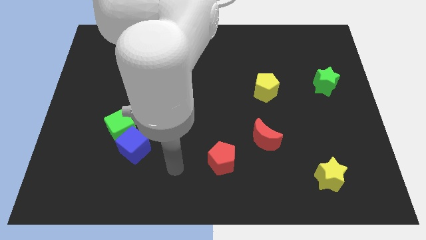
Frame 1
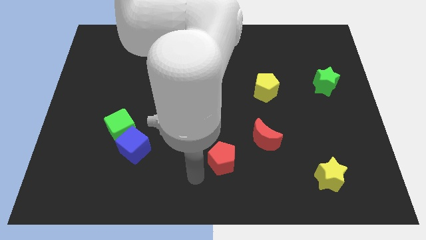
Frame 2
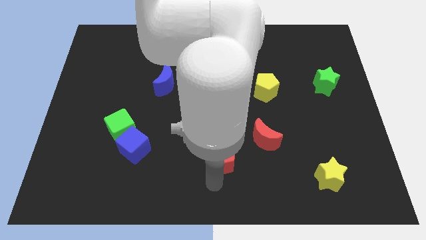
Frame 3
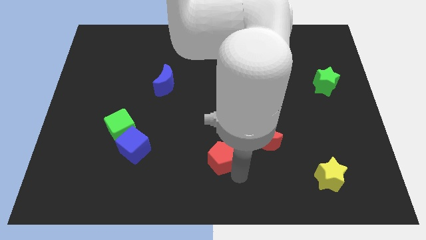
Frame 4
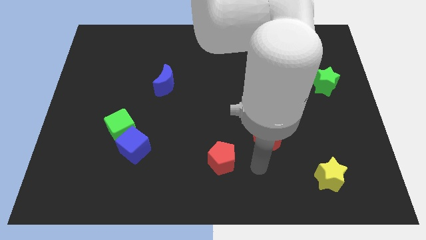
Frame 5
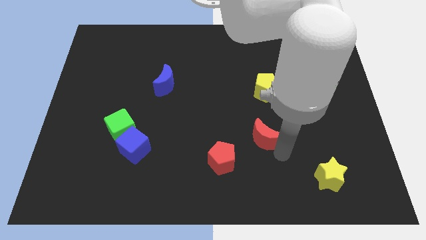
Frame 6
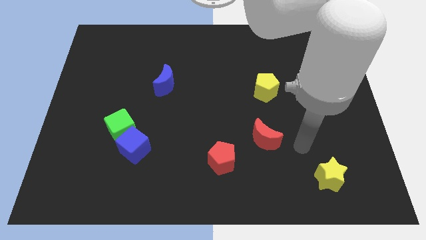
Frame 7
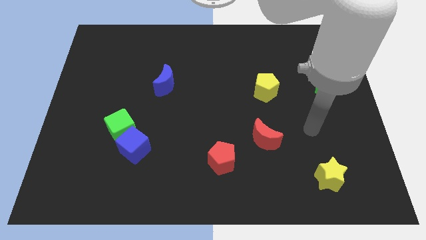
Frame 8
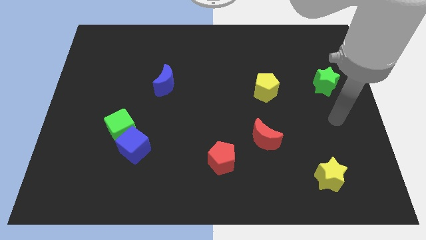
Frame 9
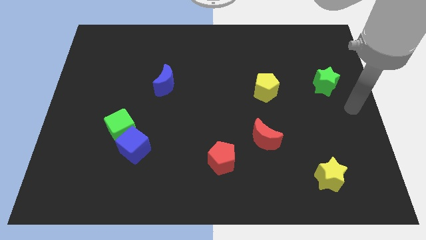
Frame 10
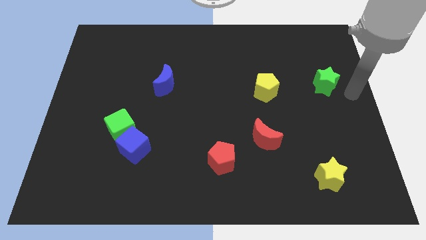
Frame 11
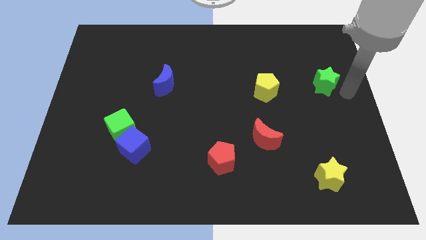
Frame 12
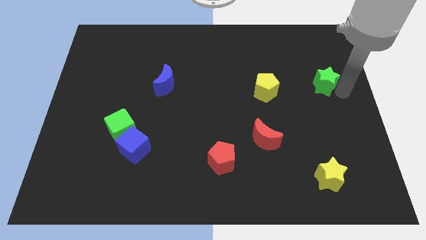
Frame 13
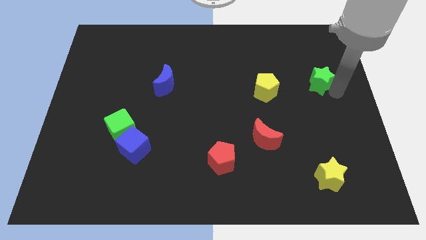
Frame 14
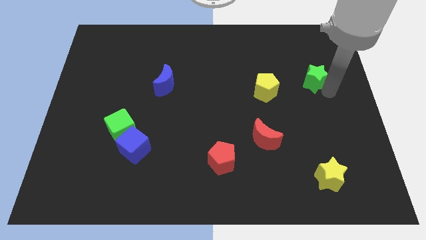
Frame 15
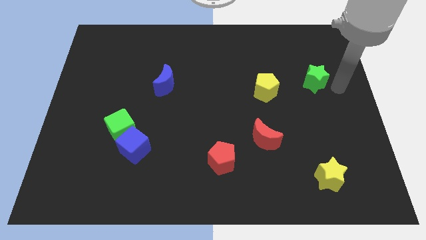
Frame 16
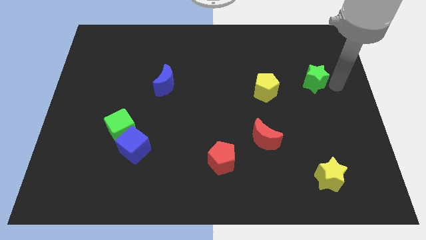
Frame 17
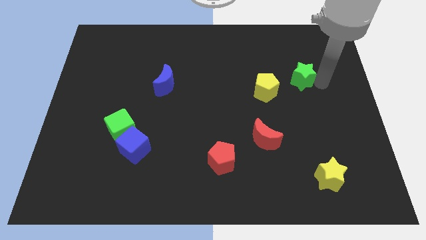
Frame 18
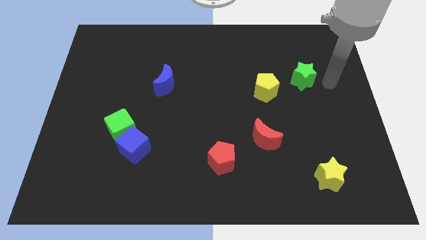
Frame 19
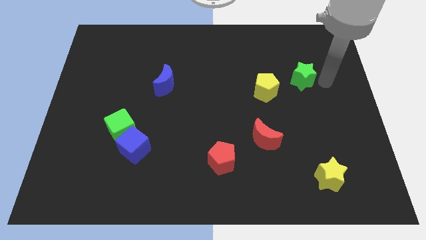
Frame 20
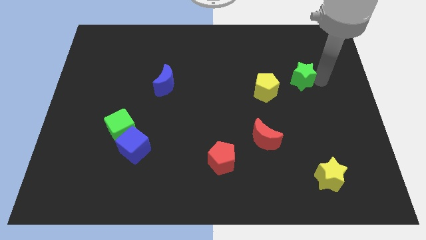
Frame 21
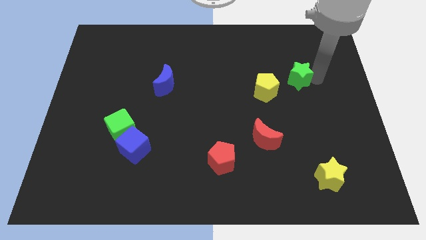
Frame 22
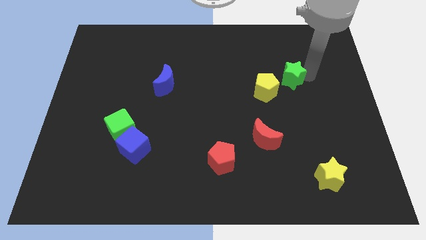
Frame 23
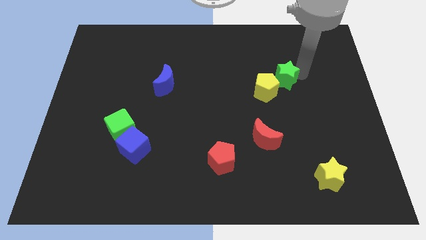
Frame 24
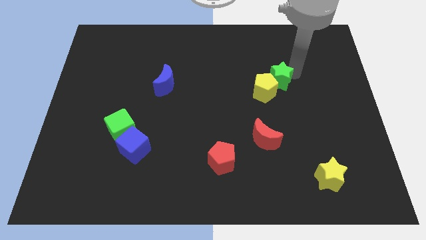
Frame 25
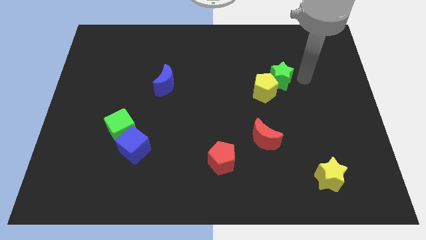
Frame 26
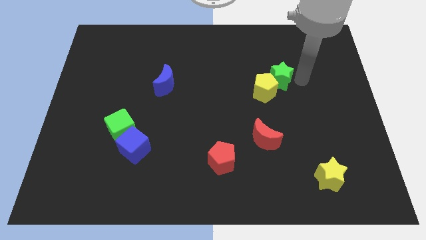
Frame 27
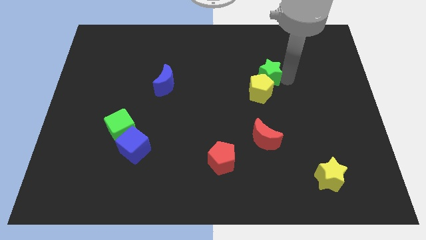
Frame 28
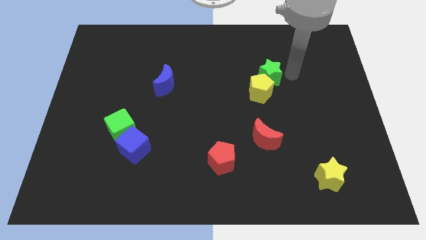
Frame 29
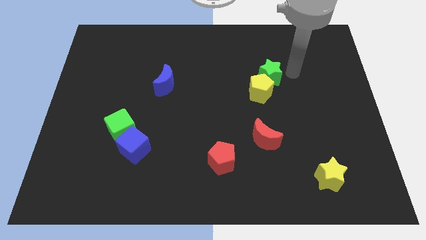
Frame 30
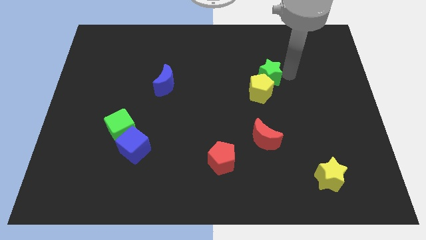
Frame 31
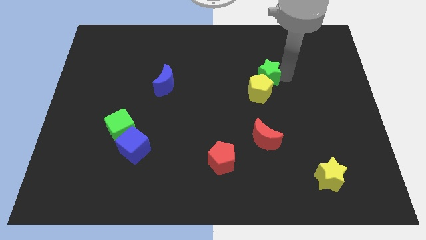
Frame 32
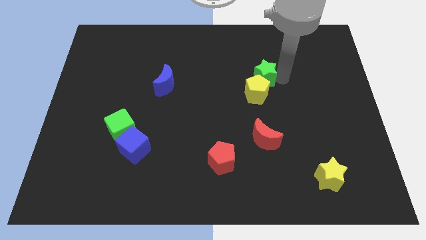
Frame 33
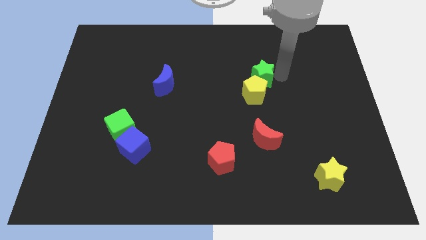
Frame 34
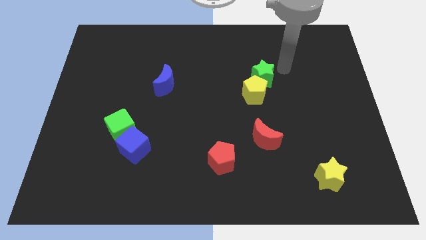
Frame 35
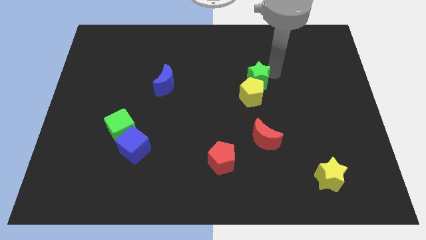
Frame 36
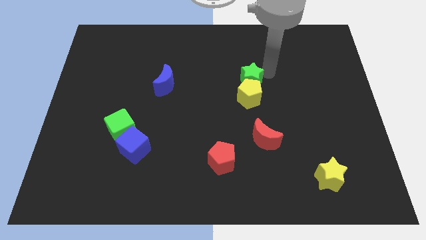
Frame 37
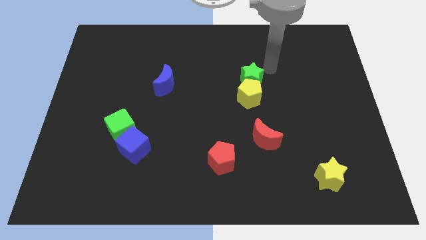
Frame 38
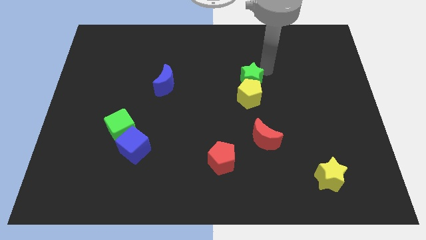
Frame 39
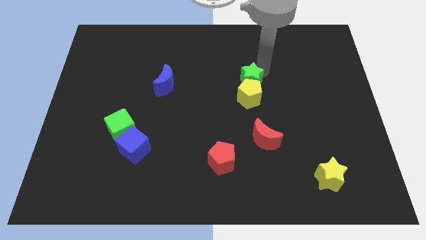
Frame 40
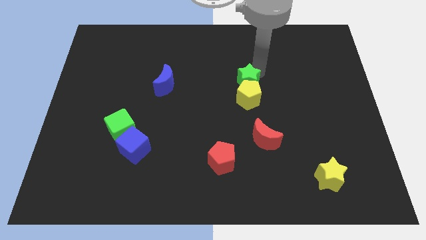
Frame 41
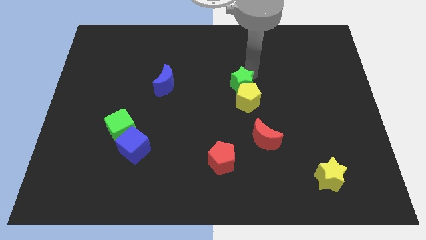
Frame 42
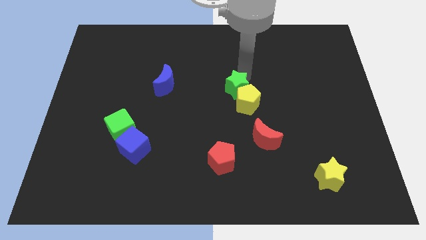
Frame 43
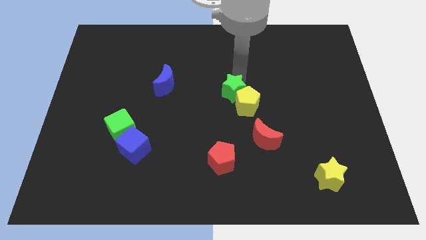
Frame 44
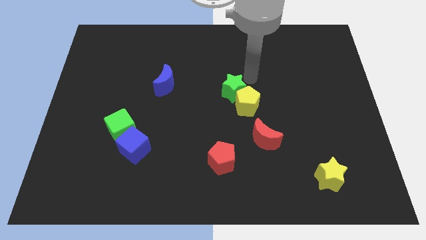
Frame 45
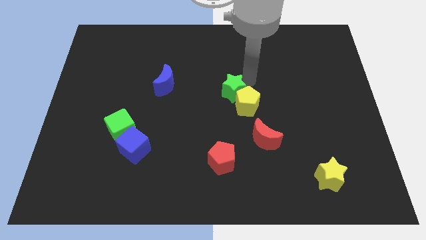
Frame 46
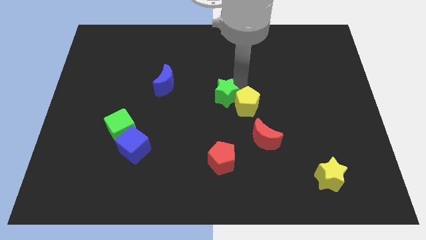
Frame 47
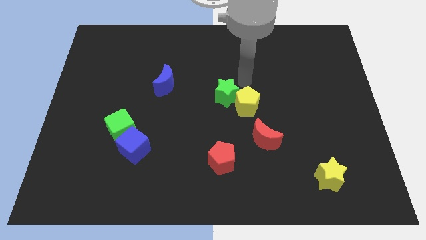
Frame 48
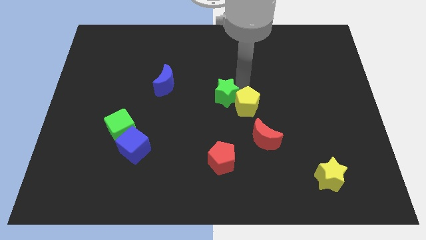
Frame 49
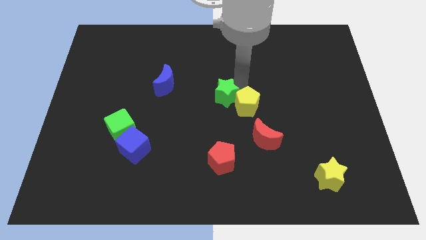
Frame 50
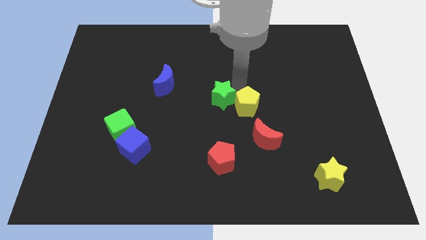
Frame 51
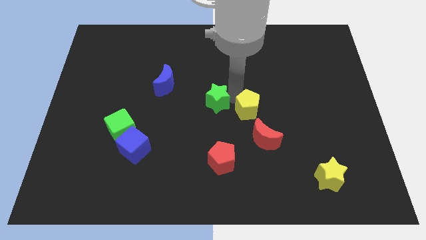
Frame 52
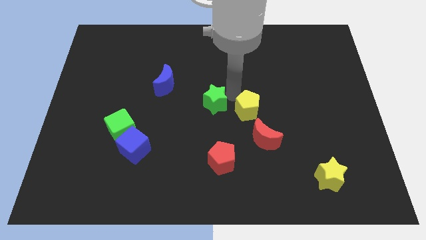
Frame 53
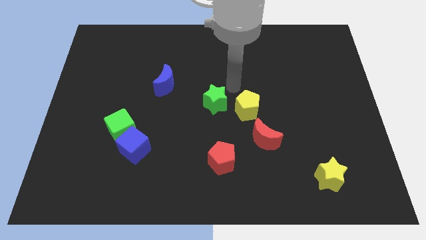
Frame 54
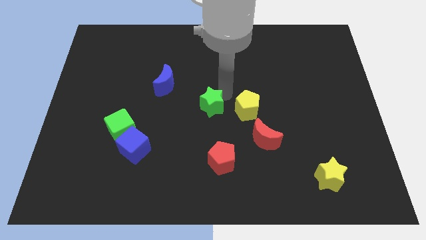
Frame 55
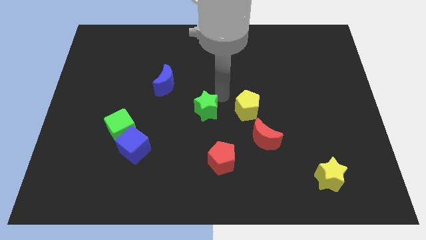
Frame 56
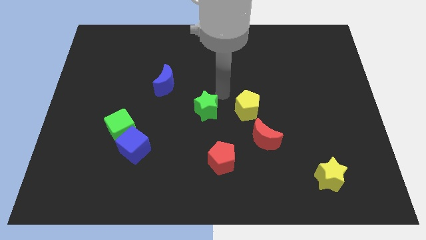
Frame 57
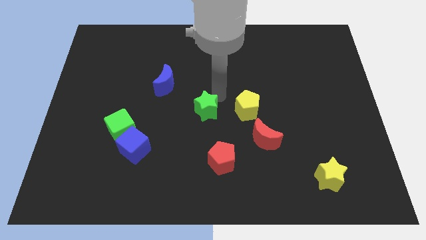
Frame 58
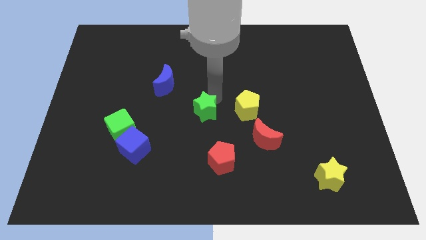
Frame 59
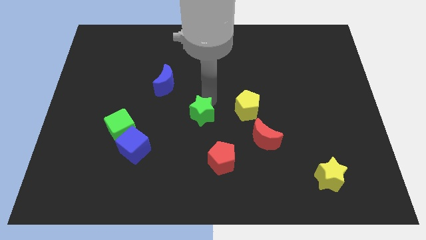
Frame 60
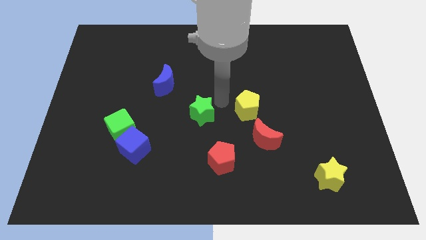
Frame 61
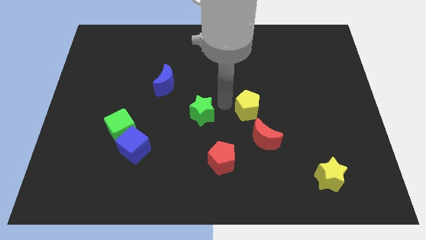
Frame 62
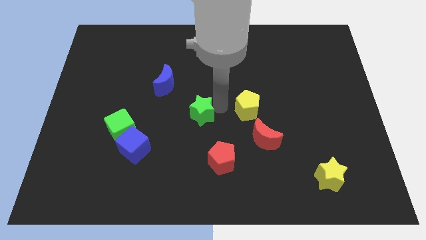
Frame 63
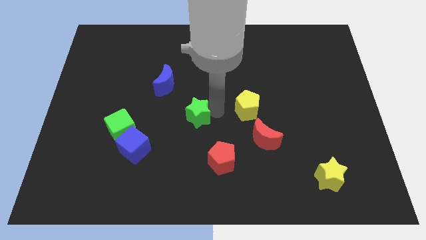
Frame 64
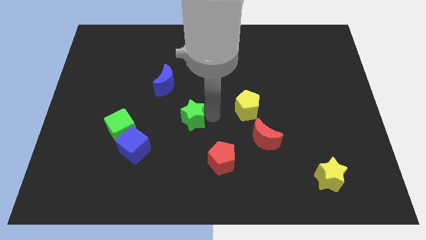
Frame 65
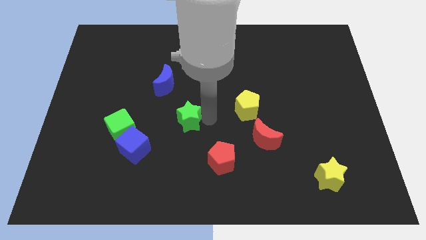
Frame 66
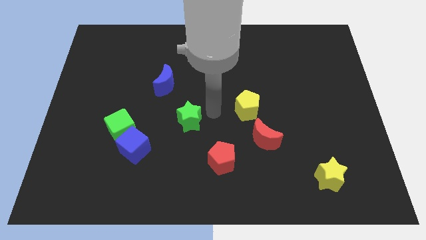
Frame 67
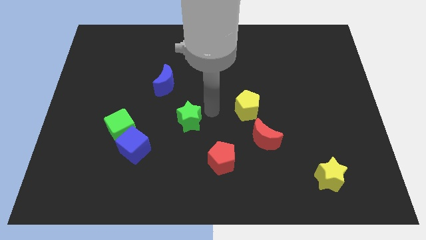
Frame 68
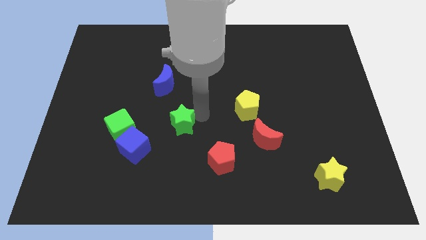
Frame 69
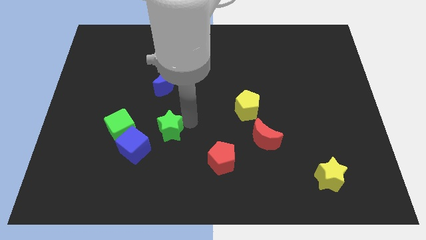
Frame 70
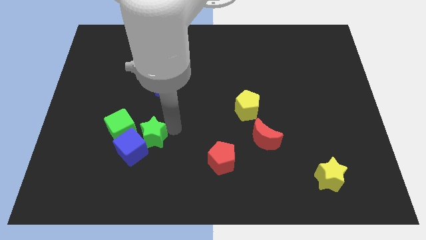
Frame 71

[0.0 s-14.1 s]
slide the green star close to the blue cube
